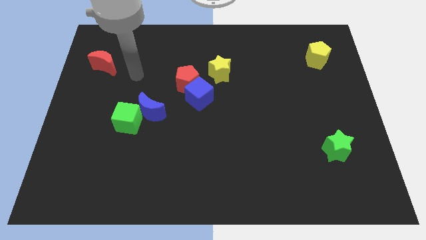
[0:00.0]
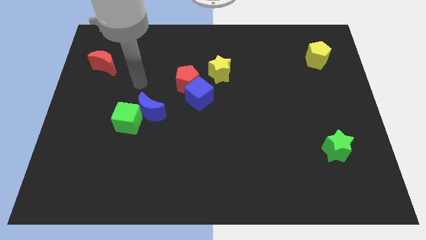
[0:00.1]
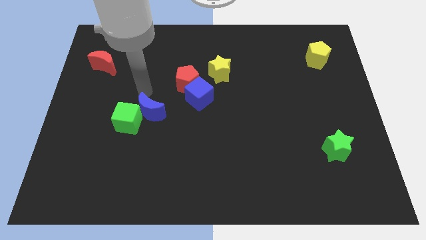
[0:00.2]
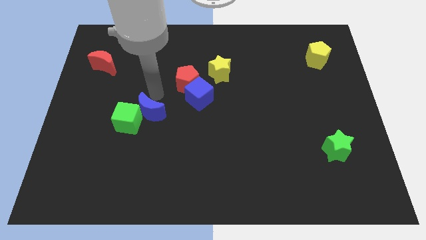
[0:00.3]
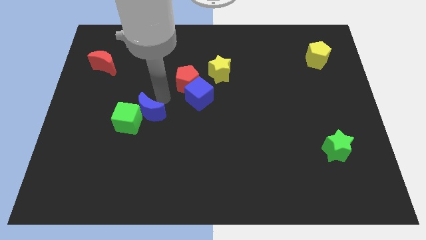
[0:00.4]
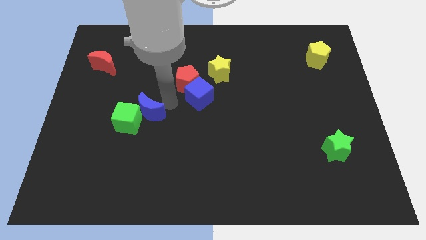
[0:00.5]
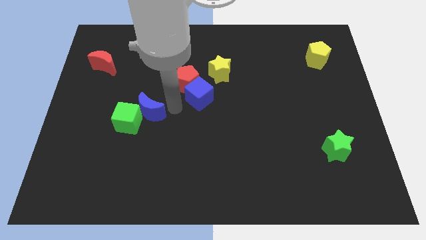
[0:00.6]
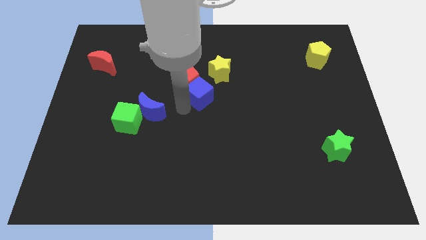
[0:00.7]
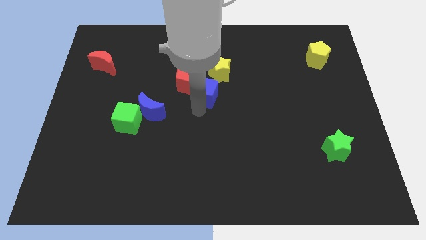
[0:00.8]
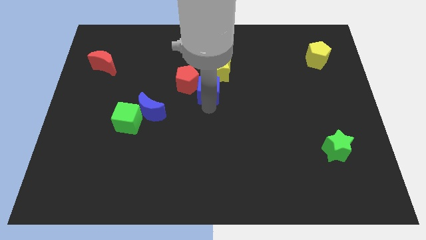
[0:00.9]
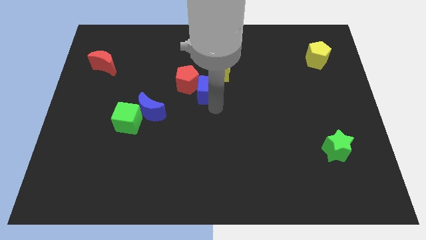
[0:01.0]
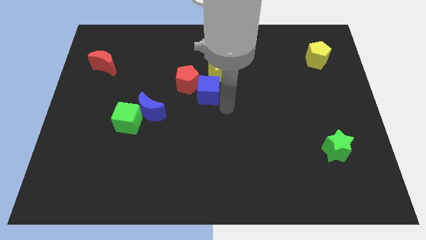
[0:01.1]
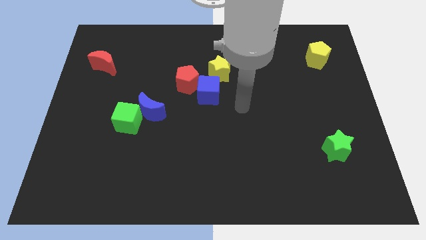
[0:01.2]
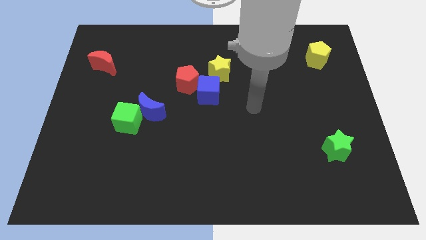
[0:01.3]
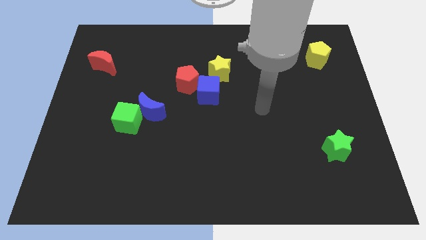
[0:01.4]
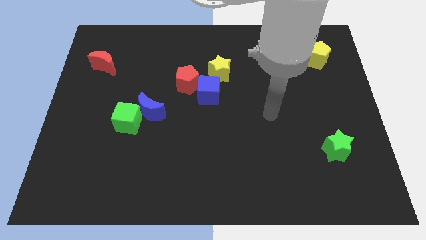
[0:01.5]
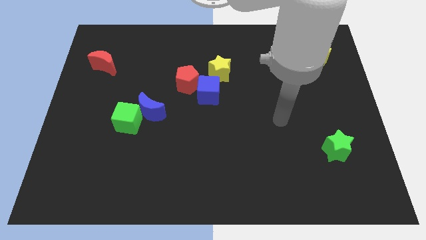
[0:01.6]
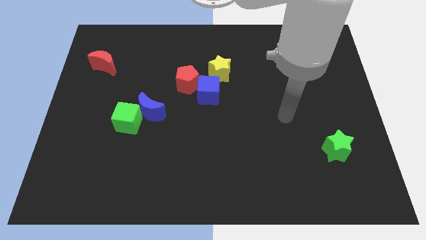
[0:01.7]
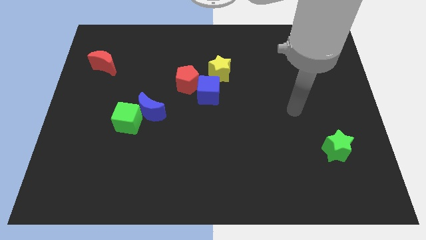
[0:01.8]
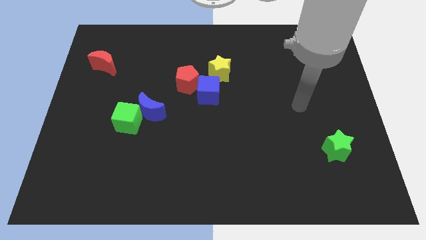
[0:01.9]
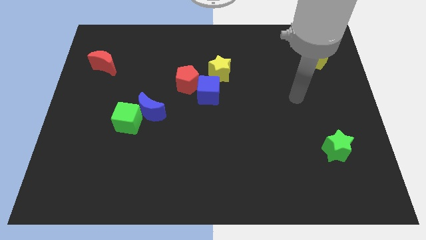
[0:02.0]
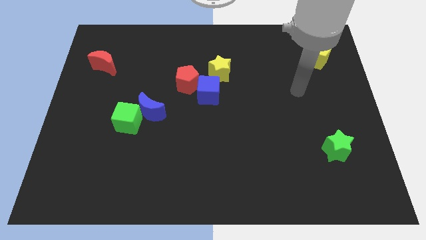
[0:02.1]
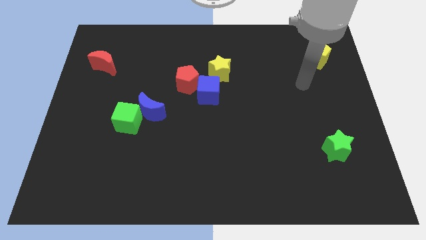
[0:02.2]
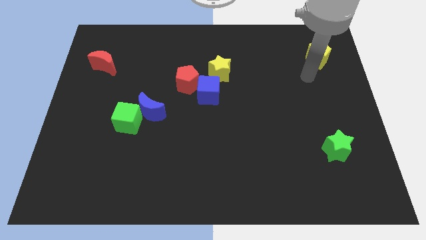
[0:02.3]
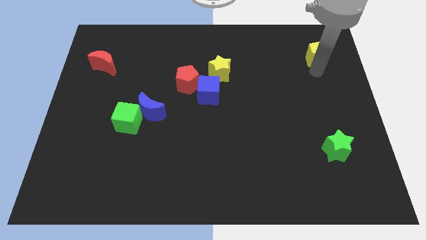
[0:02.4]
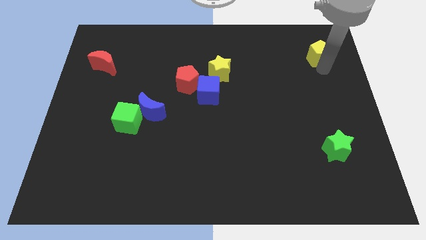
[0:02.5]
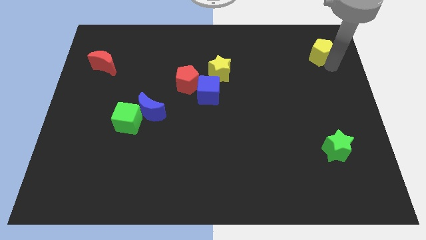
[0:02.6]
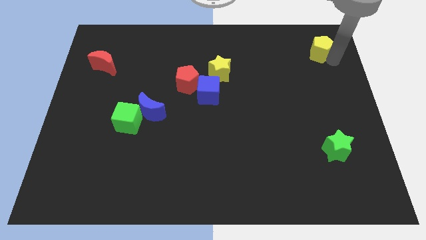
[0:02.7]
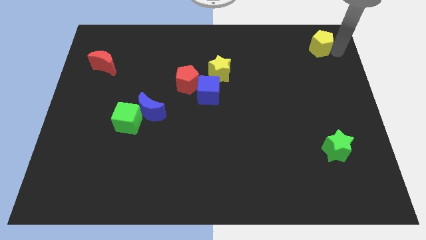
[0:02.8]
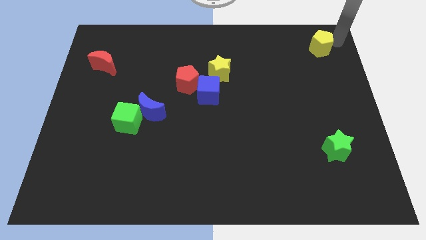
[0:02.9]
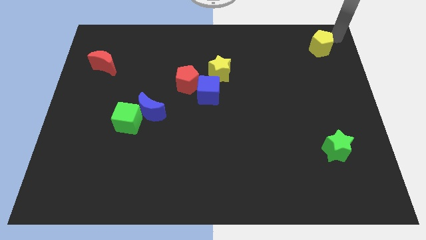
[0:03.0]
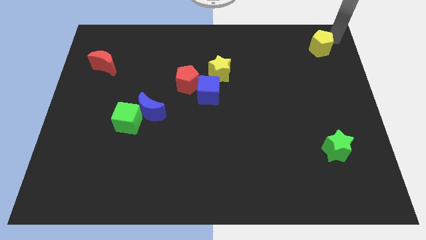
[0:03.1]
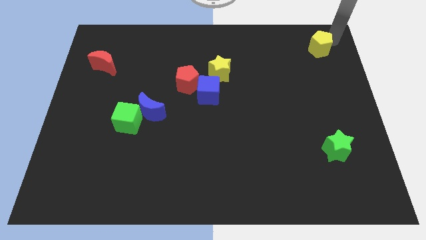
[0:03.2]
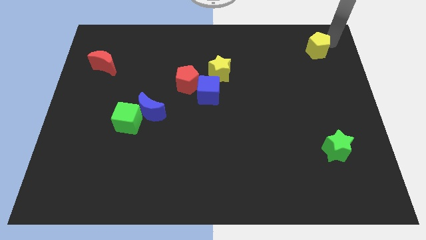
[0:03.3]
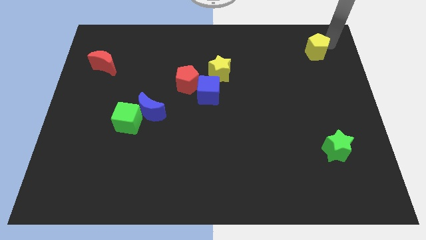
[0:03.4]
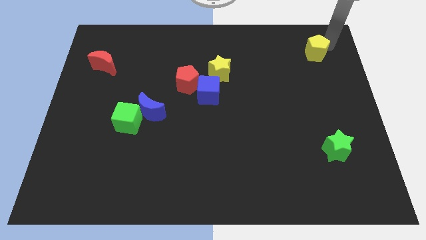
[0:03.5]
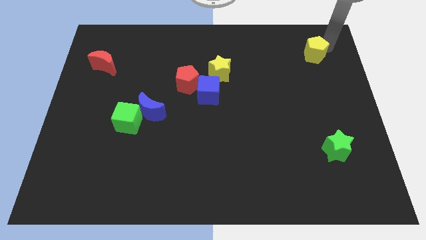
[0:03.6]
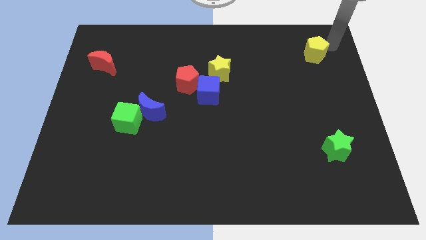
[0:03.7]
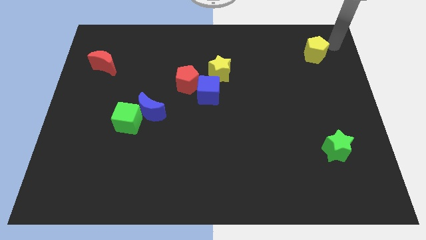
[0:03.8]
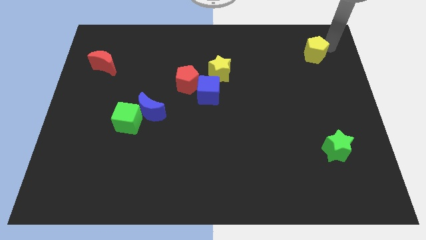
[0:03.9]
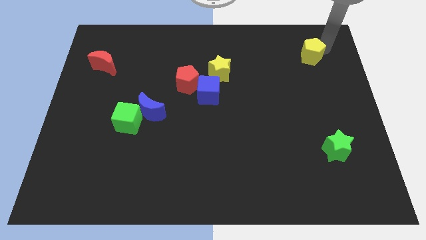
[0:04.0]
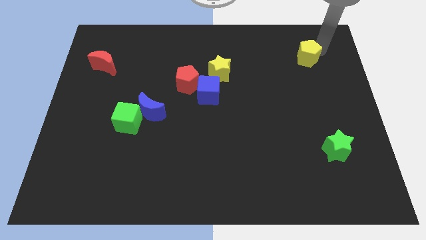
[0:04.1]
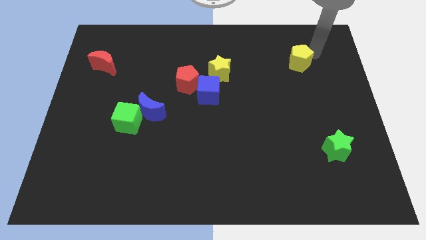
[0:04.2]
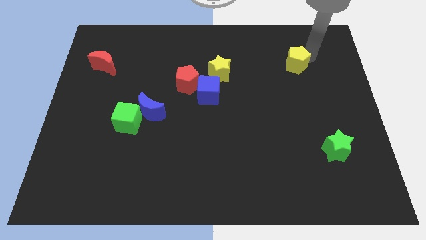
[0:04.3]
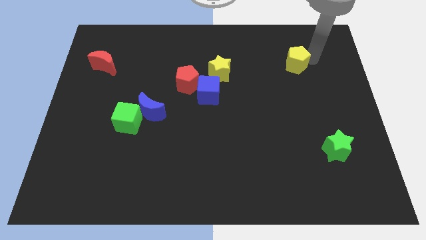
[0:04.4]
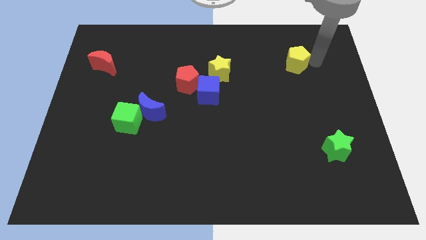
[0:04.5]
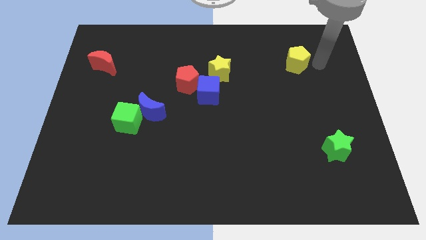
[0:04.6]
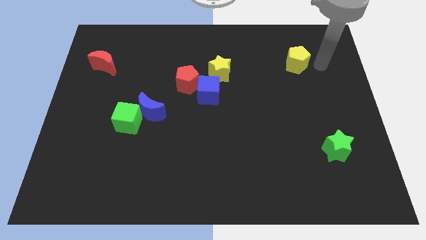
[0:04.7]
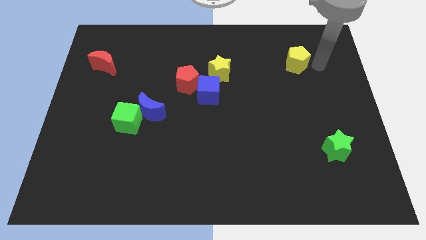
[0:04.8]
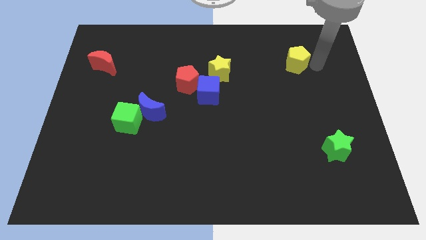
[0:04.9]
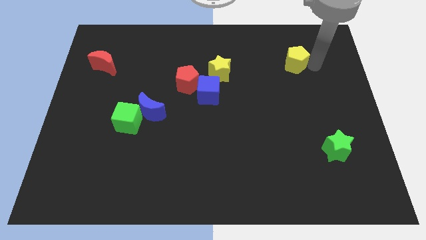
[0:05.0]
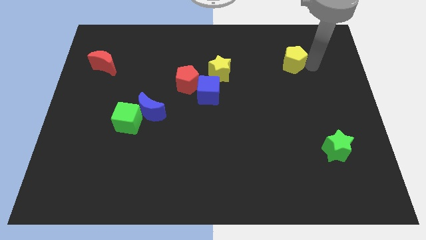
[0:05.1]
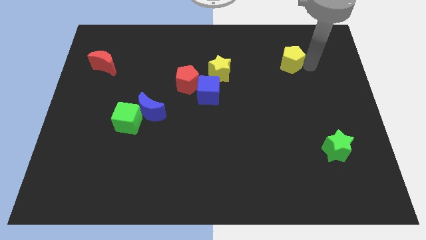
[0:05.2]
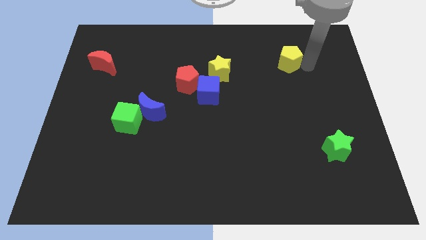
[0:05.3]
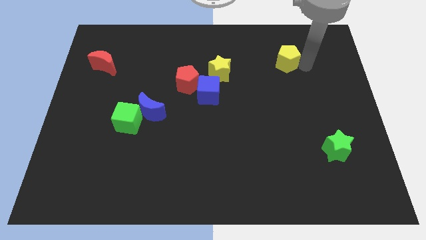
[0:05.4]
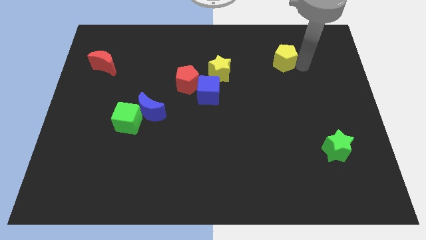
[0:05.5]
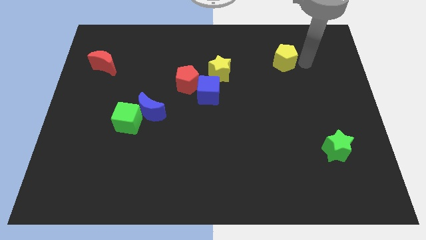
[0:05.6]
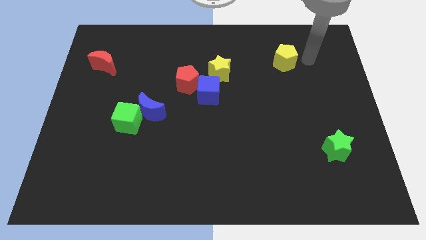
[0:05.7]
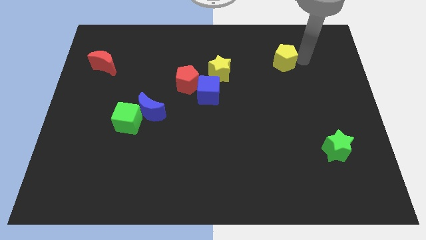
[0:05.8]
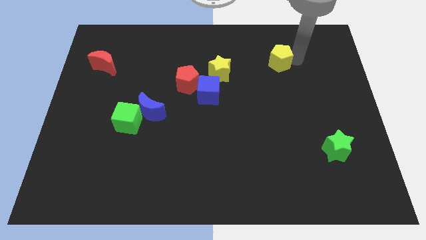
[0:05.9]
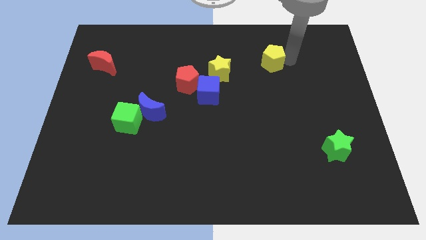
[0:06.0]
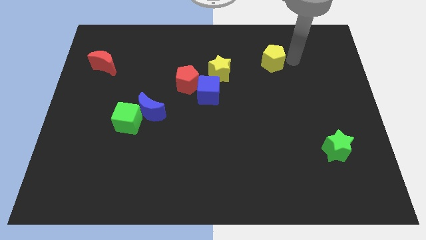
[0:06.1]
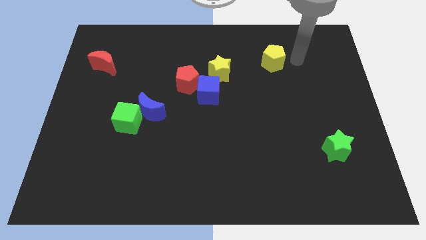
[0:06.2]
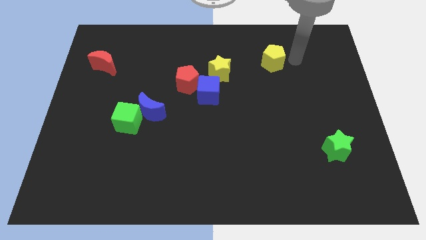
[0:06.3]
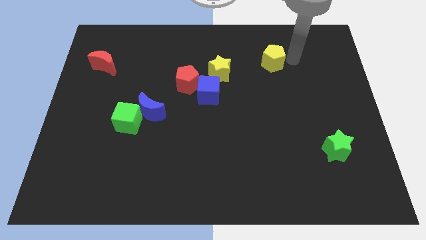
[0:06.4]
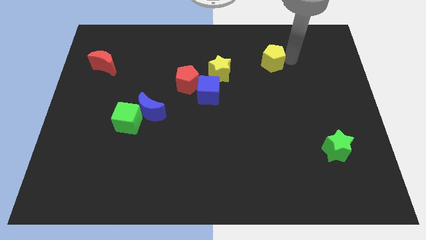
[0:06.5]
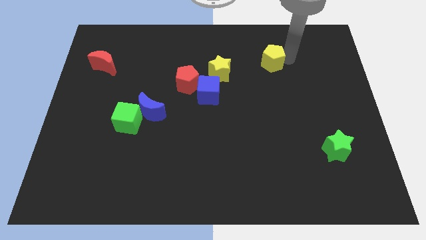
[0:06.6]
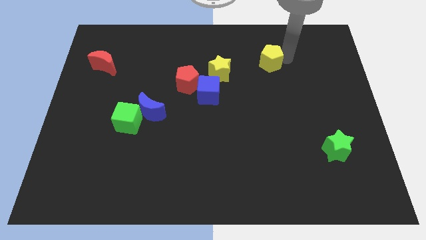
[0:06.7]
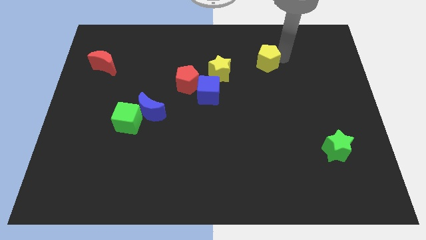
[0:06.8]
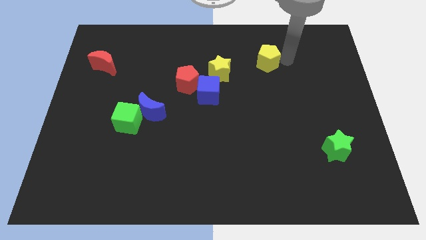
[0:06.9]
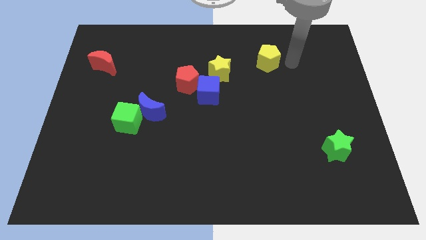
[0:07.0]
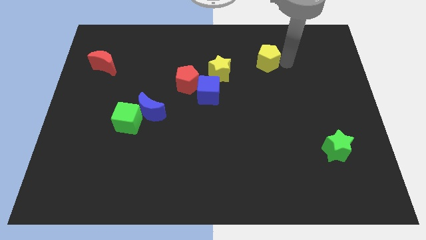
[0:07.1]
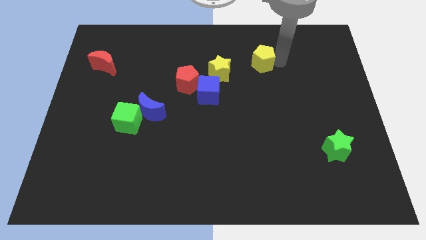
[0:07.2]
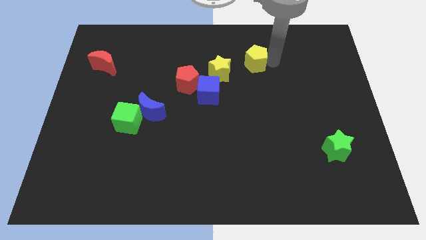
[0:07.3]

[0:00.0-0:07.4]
push the yellow pentagon to the top right side of the yellow star
